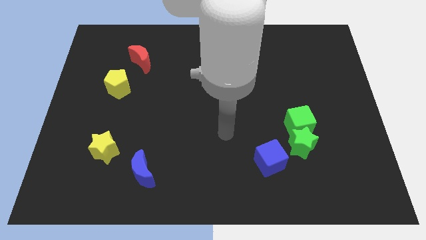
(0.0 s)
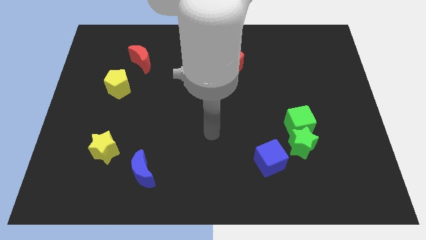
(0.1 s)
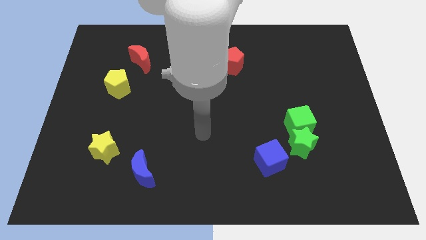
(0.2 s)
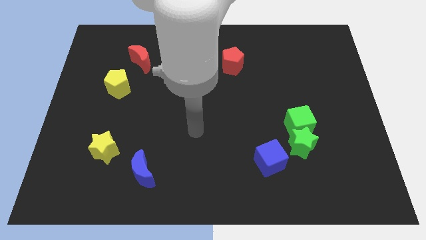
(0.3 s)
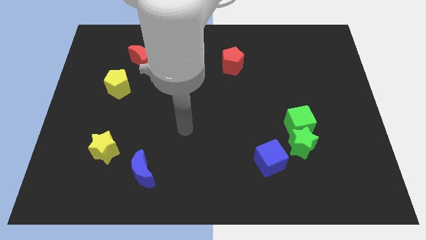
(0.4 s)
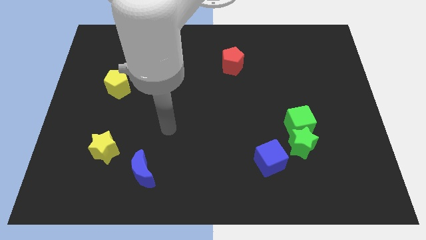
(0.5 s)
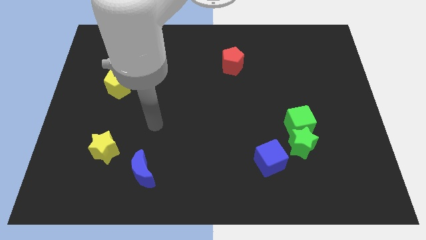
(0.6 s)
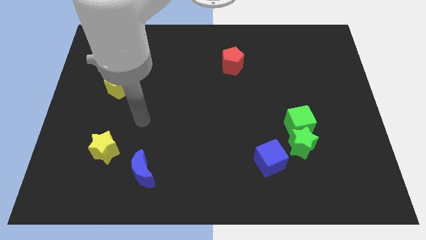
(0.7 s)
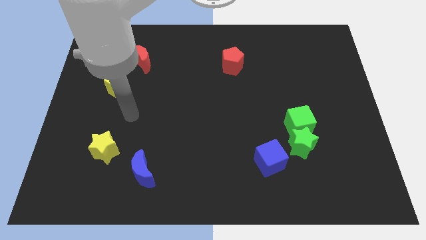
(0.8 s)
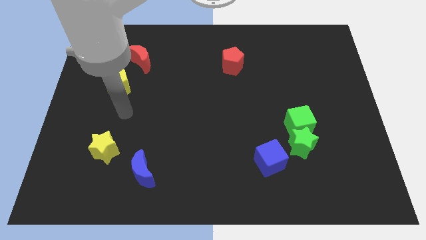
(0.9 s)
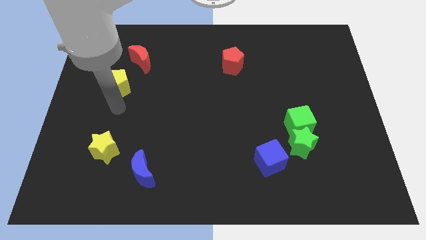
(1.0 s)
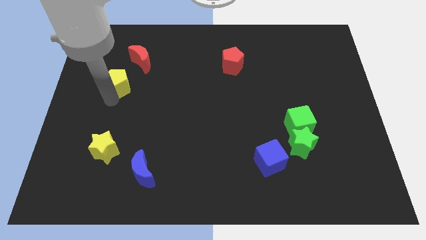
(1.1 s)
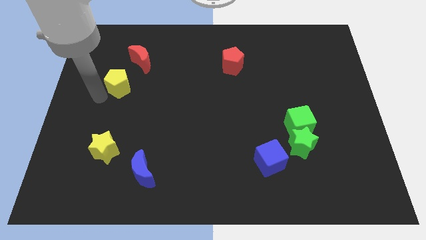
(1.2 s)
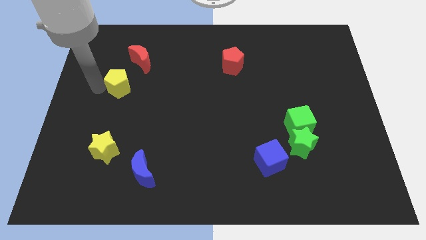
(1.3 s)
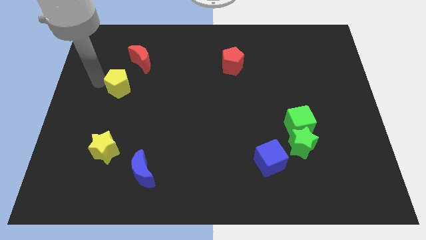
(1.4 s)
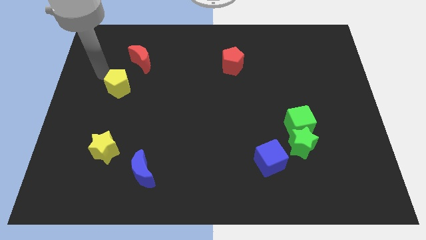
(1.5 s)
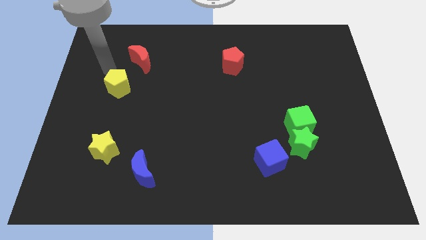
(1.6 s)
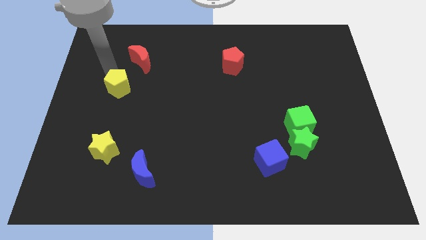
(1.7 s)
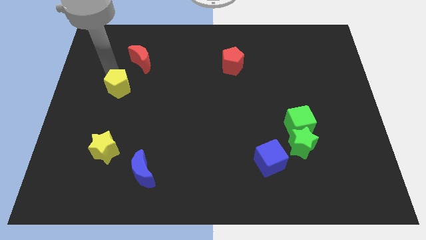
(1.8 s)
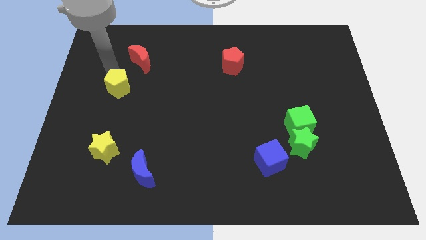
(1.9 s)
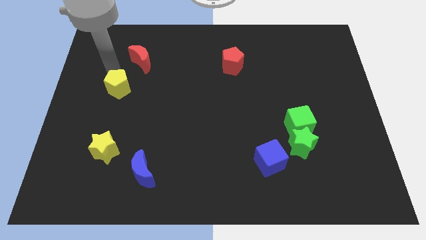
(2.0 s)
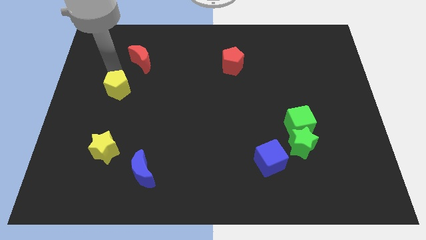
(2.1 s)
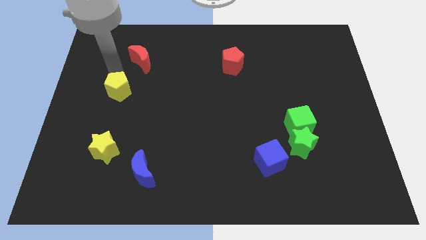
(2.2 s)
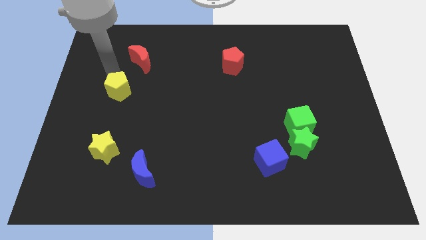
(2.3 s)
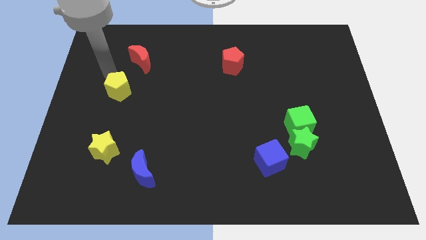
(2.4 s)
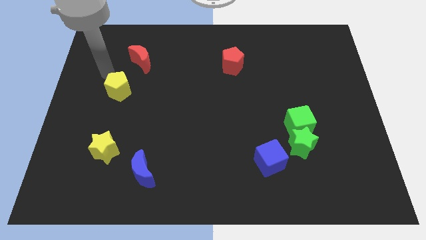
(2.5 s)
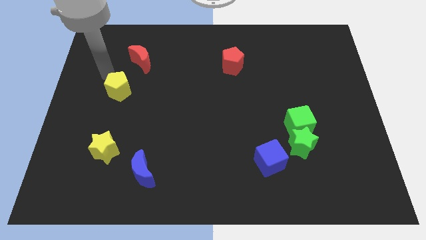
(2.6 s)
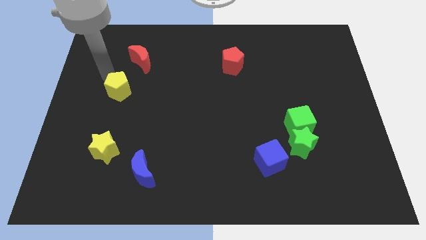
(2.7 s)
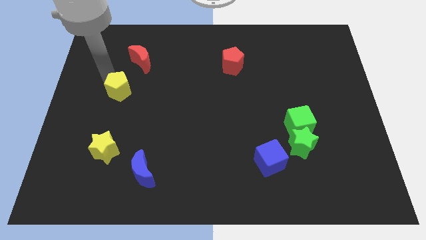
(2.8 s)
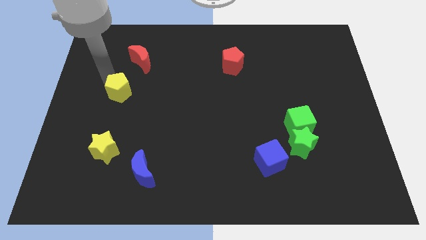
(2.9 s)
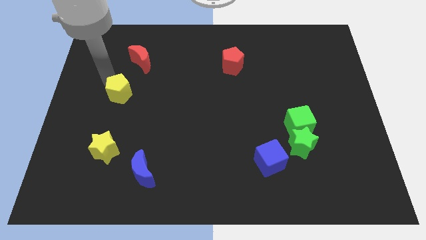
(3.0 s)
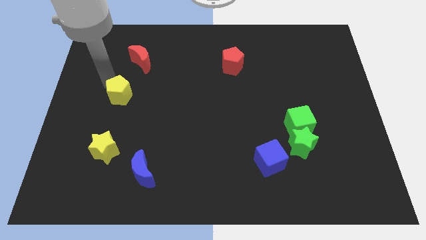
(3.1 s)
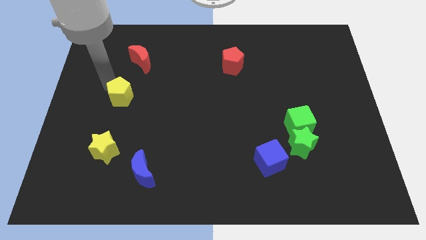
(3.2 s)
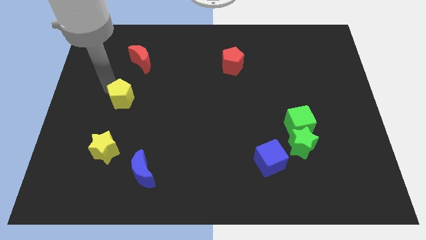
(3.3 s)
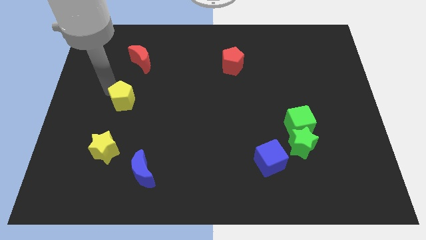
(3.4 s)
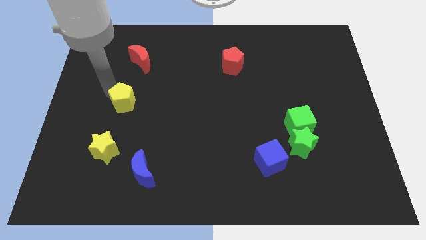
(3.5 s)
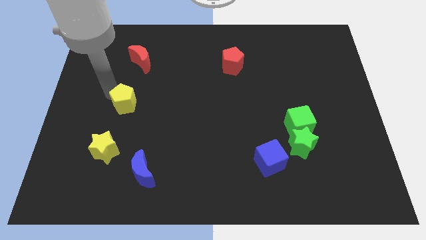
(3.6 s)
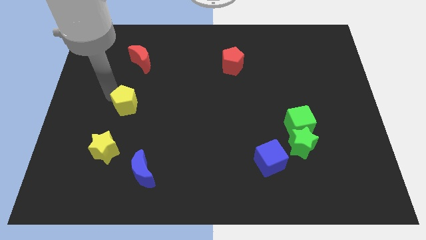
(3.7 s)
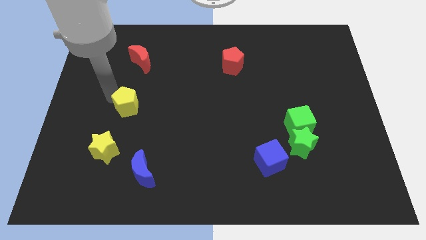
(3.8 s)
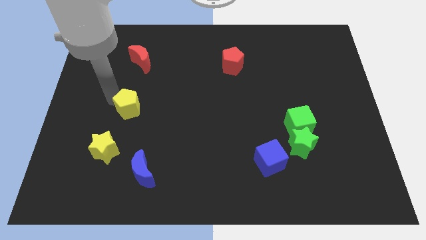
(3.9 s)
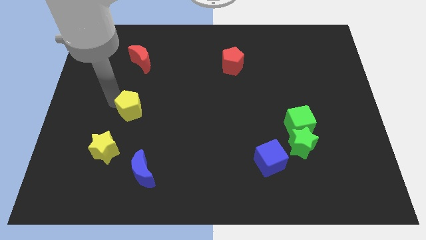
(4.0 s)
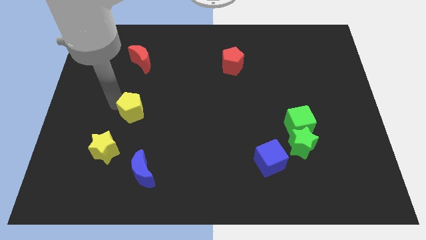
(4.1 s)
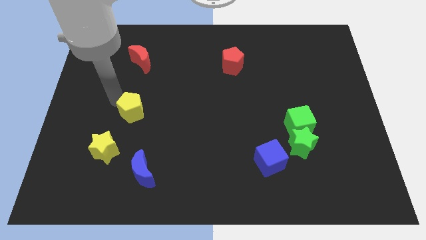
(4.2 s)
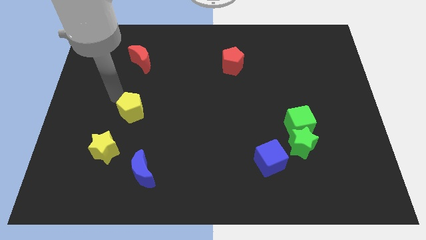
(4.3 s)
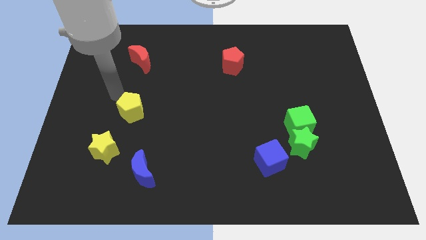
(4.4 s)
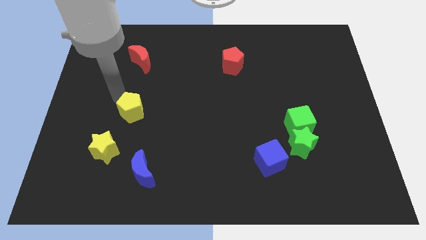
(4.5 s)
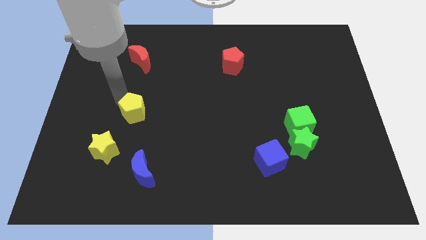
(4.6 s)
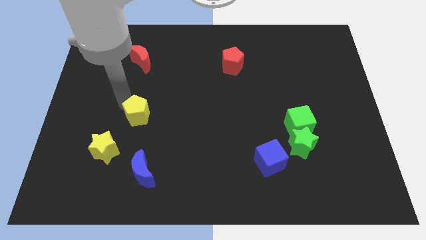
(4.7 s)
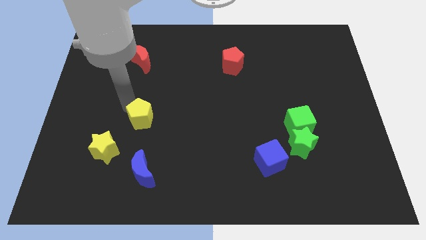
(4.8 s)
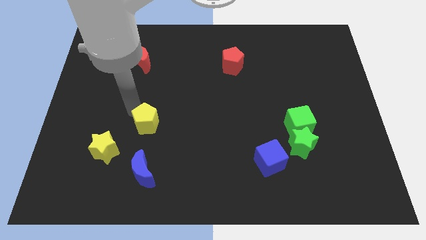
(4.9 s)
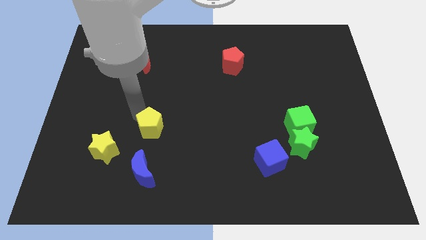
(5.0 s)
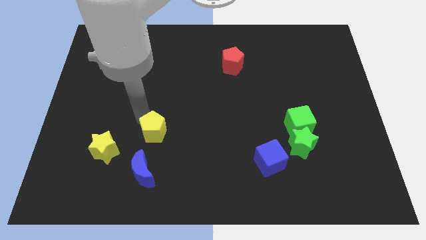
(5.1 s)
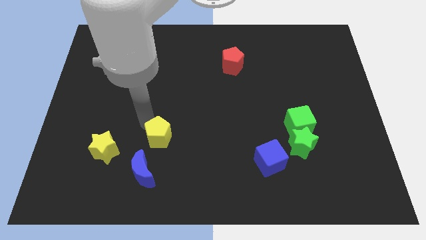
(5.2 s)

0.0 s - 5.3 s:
slide the yellow pentagon to the top right side of the blue moon

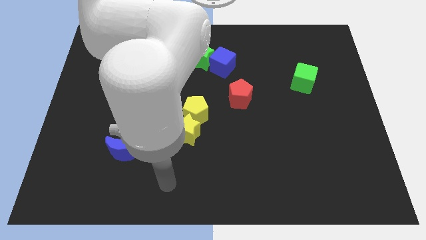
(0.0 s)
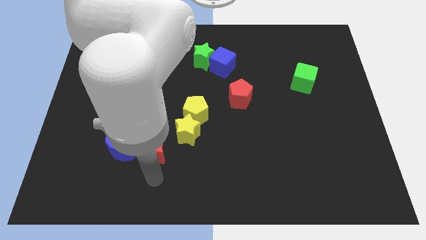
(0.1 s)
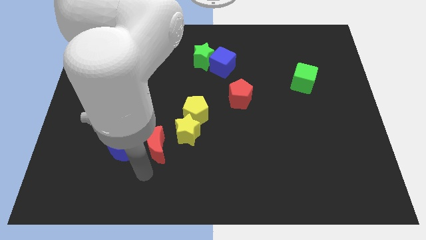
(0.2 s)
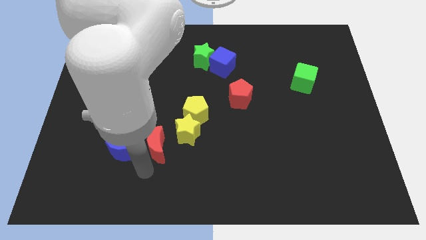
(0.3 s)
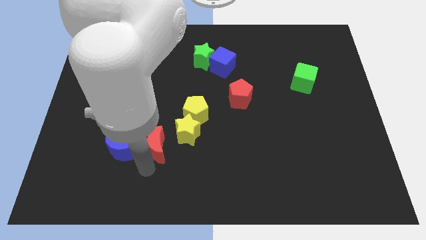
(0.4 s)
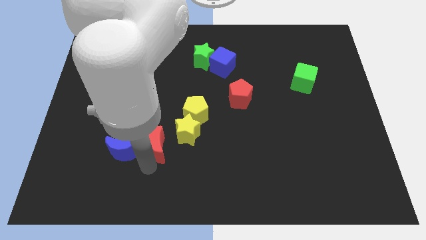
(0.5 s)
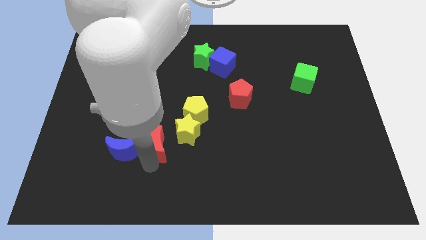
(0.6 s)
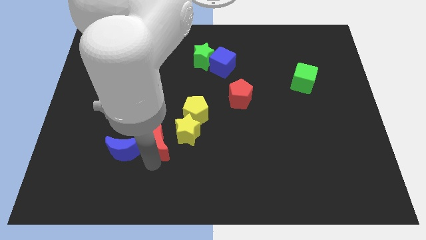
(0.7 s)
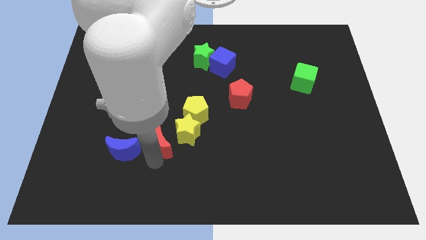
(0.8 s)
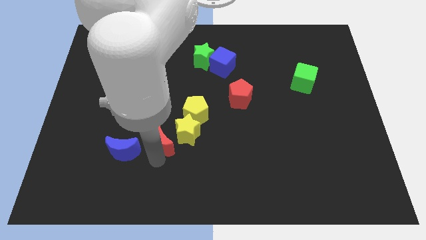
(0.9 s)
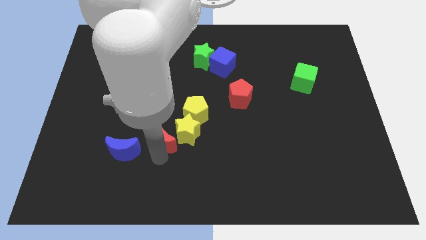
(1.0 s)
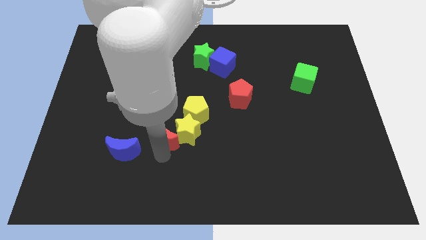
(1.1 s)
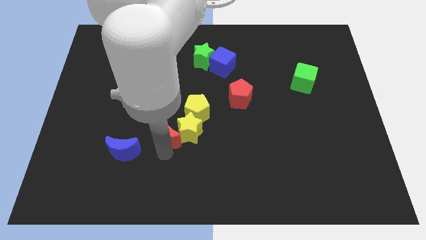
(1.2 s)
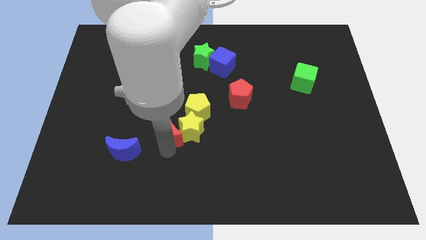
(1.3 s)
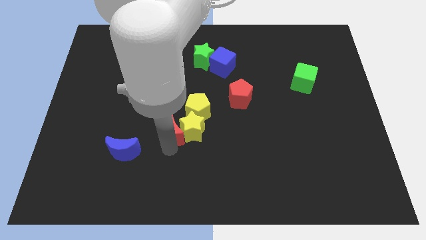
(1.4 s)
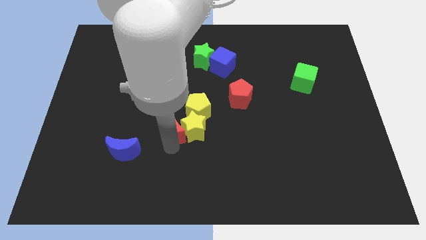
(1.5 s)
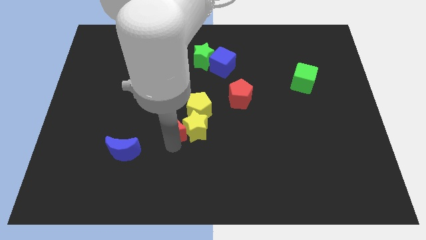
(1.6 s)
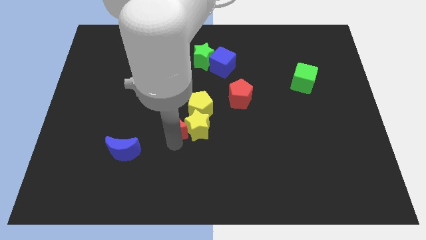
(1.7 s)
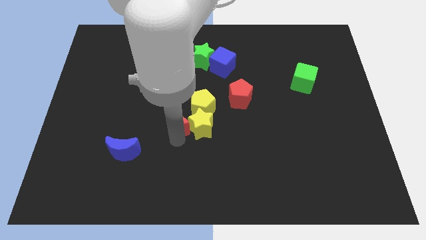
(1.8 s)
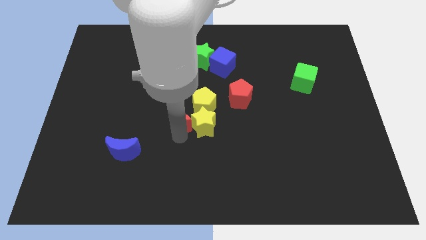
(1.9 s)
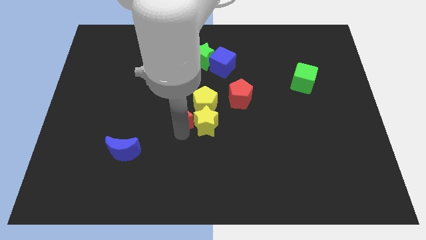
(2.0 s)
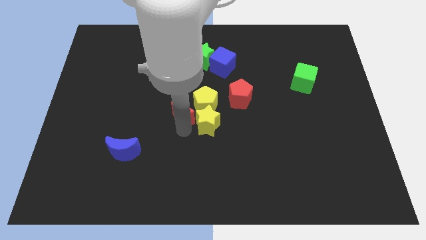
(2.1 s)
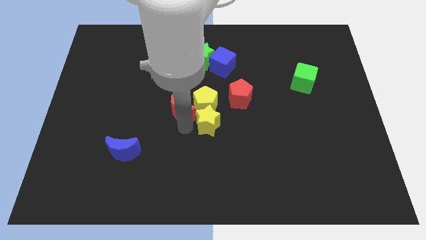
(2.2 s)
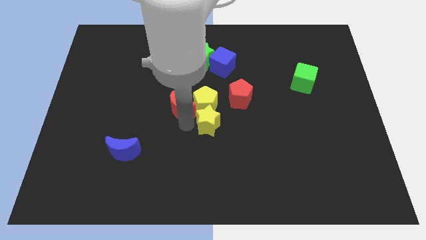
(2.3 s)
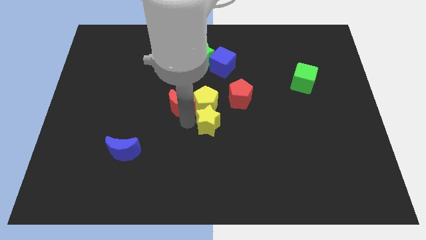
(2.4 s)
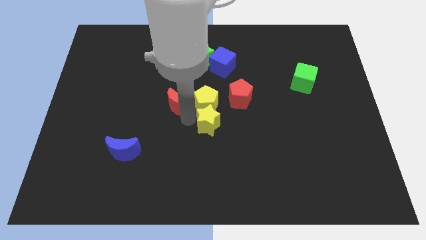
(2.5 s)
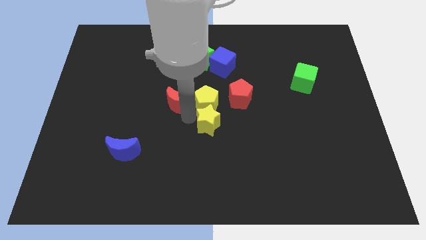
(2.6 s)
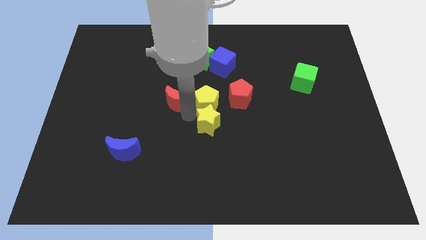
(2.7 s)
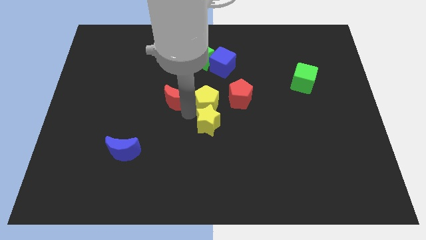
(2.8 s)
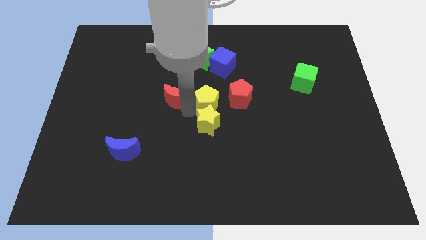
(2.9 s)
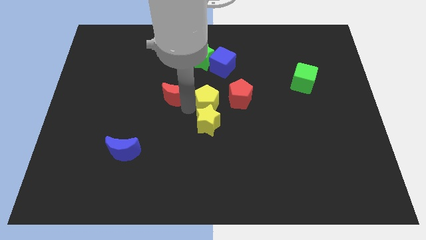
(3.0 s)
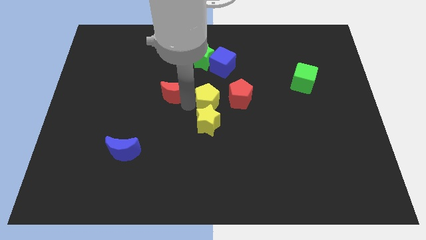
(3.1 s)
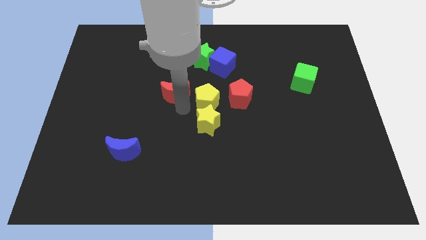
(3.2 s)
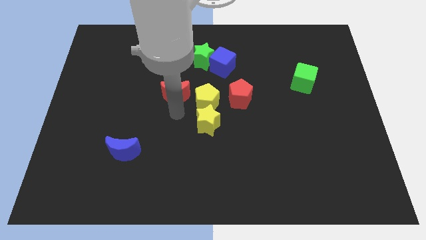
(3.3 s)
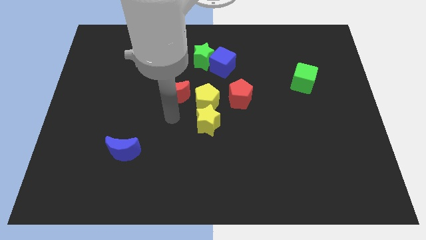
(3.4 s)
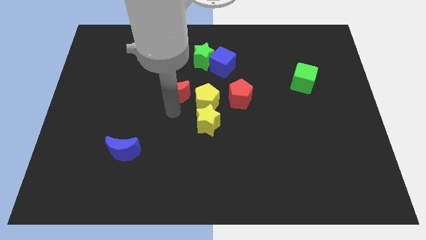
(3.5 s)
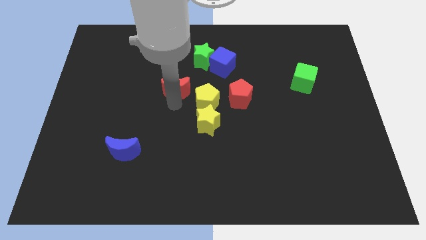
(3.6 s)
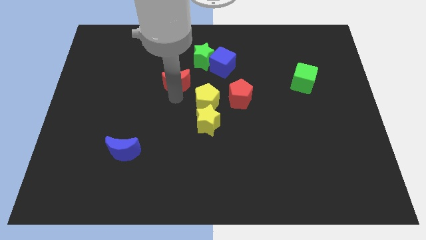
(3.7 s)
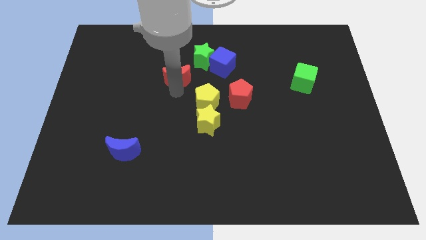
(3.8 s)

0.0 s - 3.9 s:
move the red moon to the left side of the blue cube
